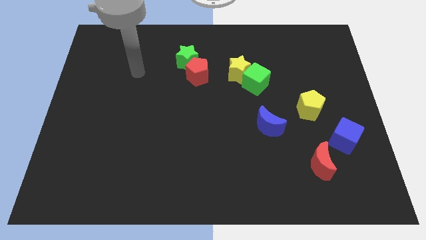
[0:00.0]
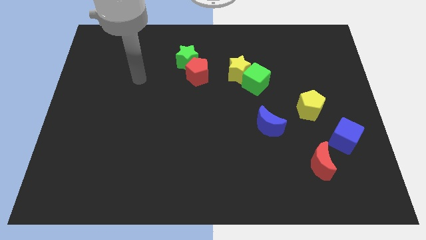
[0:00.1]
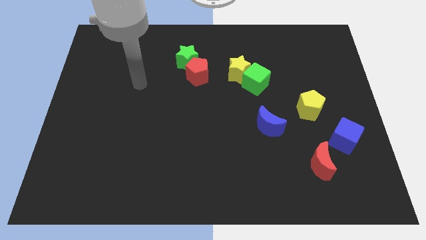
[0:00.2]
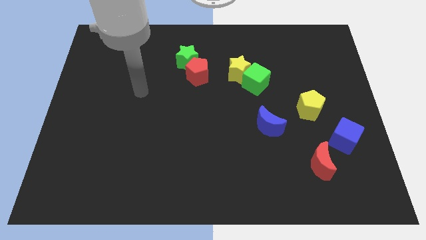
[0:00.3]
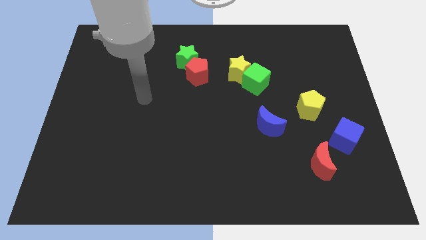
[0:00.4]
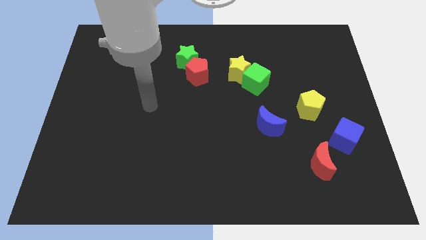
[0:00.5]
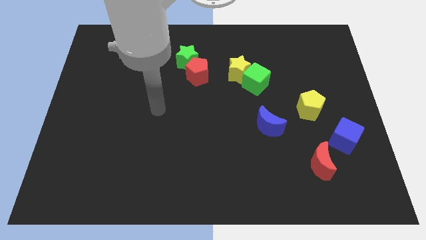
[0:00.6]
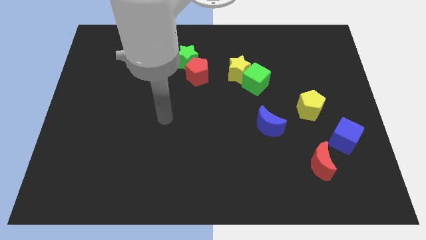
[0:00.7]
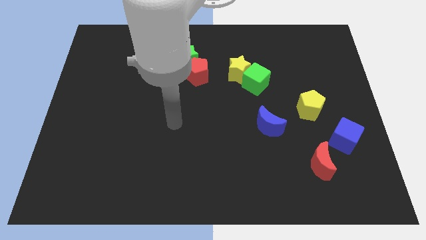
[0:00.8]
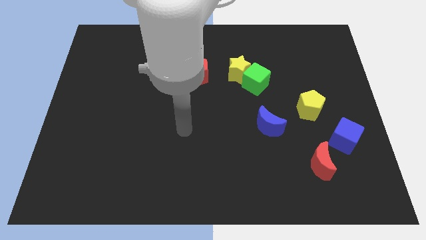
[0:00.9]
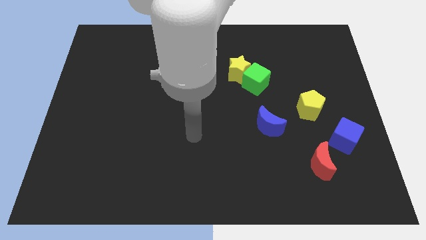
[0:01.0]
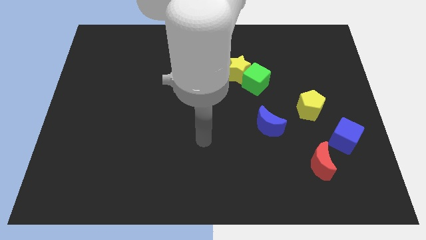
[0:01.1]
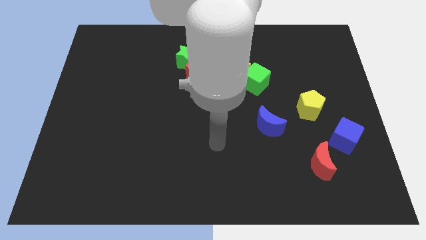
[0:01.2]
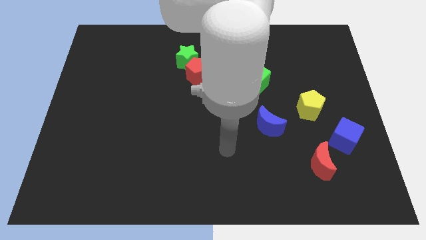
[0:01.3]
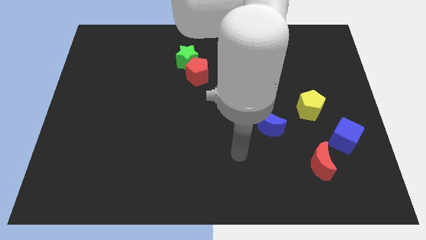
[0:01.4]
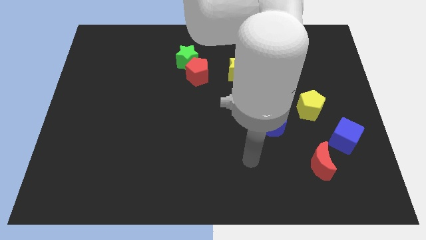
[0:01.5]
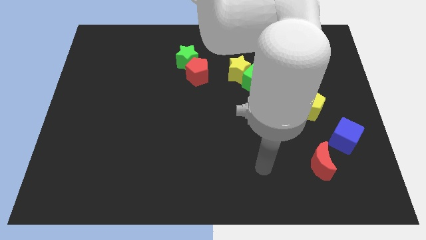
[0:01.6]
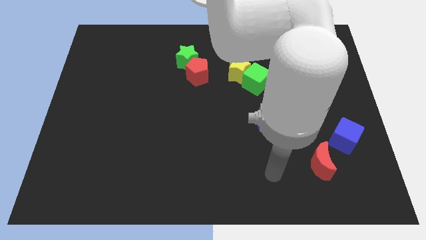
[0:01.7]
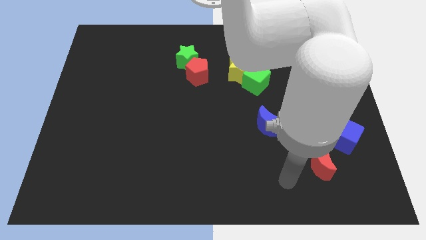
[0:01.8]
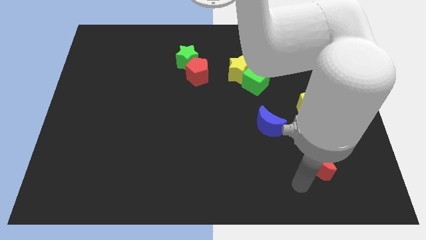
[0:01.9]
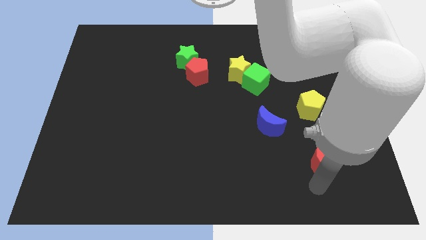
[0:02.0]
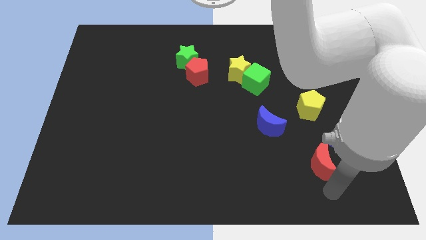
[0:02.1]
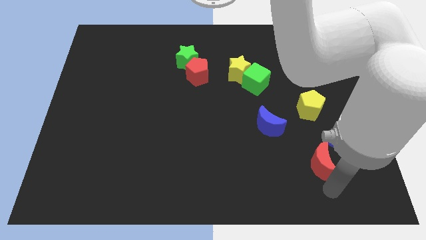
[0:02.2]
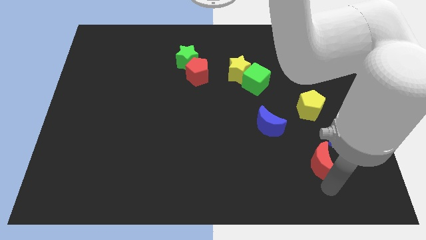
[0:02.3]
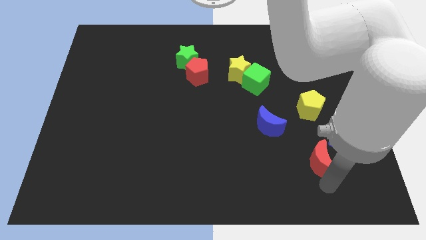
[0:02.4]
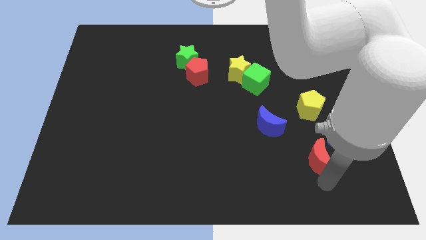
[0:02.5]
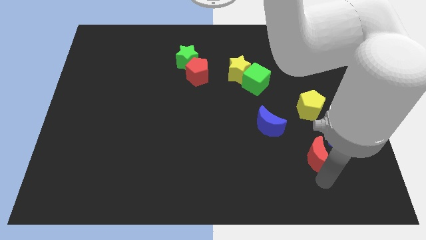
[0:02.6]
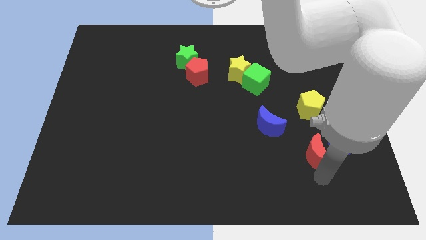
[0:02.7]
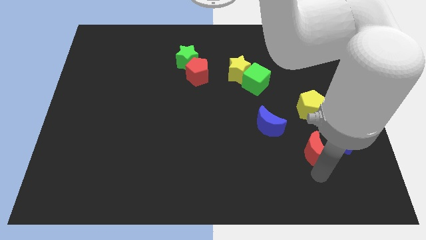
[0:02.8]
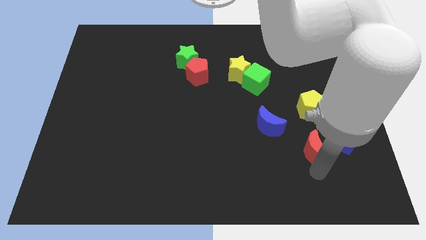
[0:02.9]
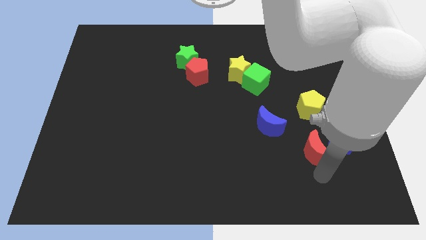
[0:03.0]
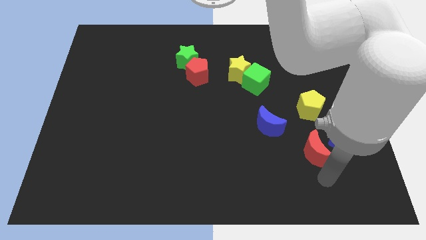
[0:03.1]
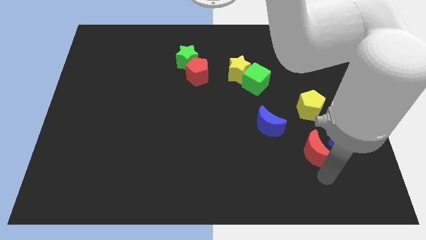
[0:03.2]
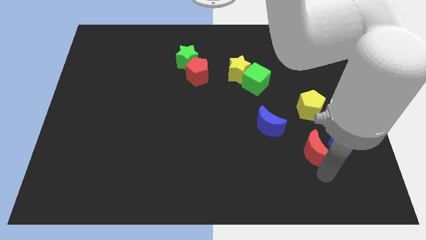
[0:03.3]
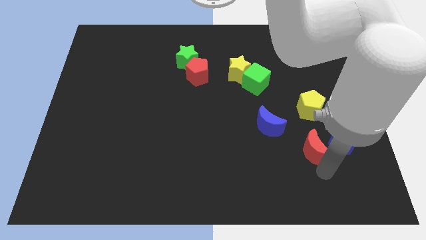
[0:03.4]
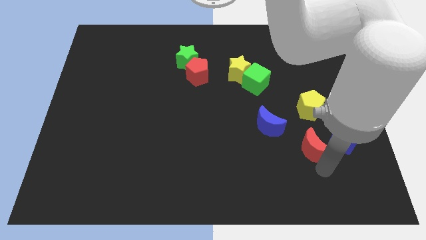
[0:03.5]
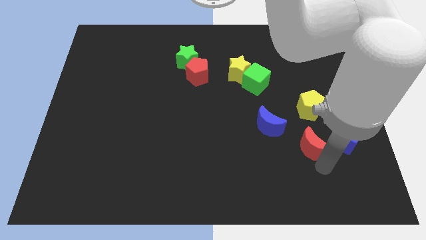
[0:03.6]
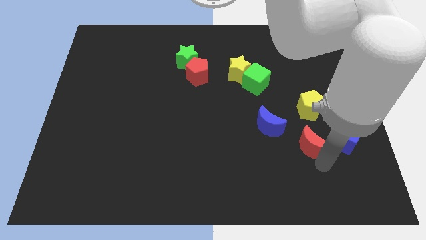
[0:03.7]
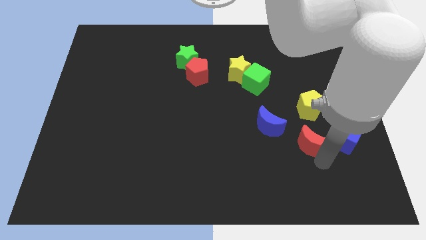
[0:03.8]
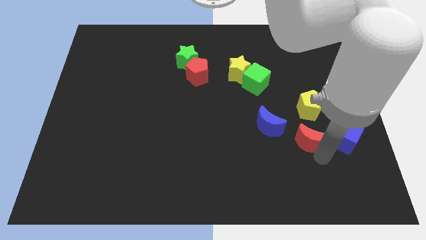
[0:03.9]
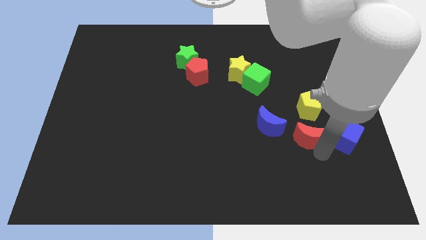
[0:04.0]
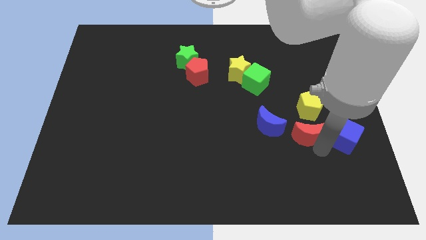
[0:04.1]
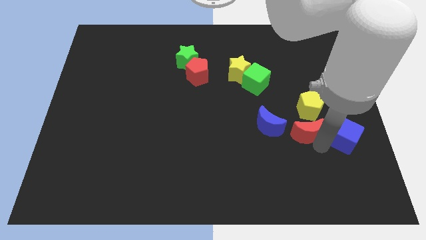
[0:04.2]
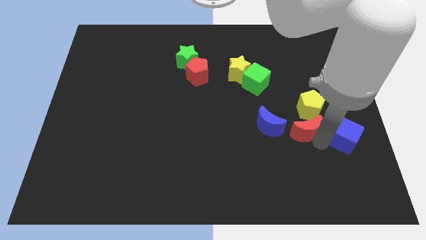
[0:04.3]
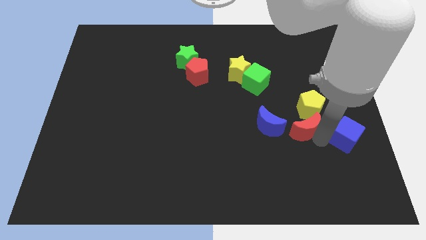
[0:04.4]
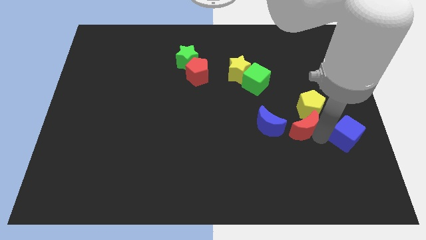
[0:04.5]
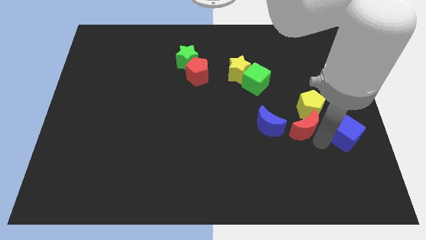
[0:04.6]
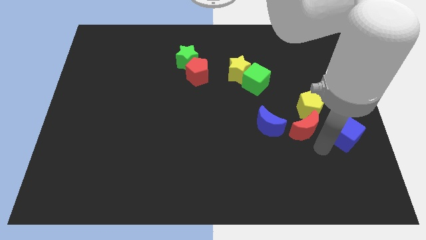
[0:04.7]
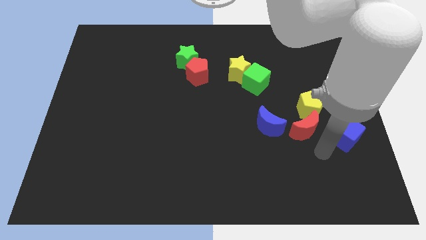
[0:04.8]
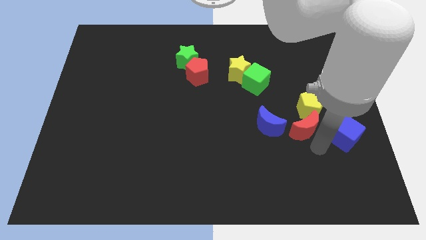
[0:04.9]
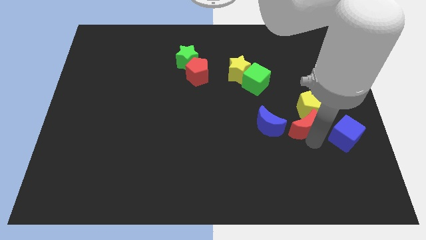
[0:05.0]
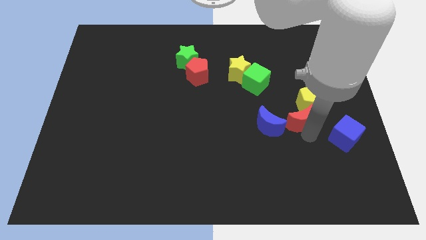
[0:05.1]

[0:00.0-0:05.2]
put the red moon to the top right side of the blue moon

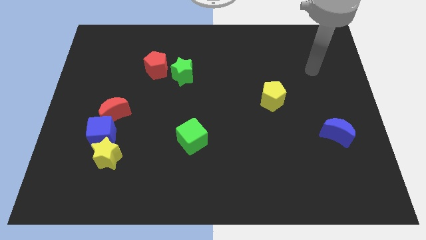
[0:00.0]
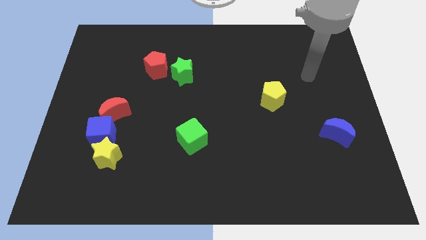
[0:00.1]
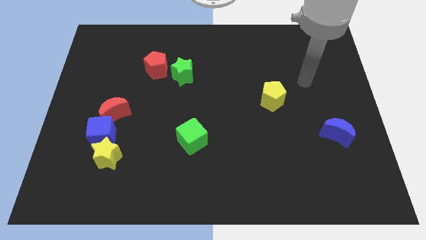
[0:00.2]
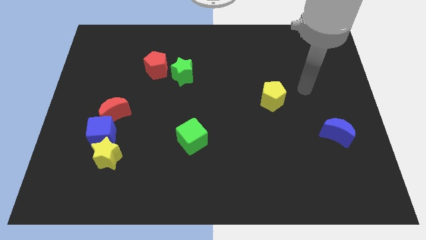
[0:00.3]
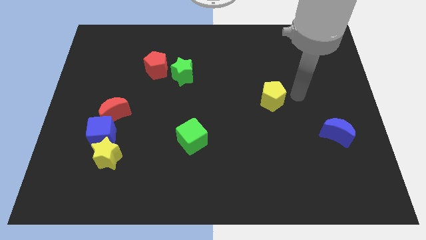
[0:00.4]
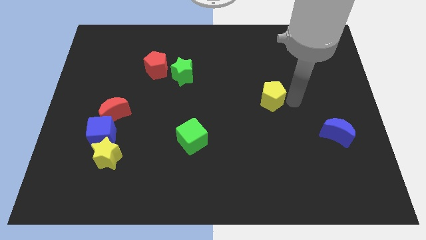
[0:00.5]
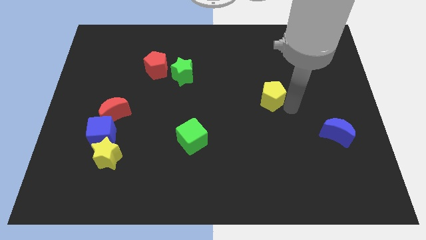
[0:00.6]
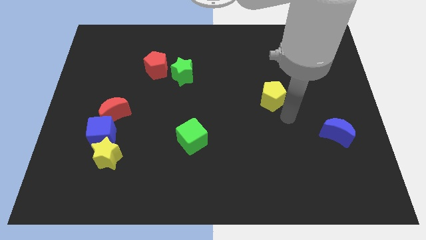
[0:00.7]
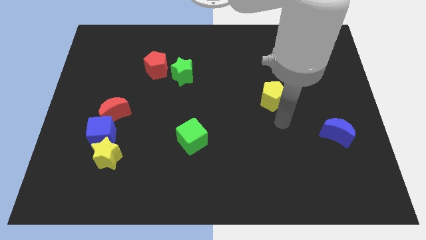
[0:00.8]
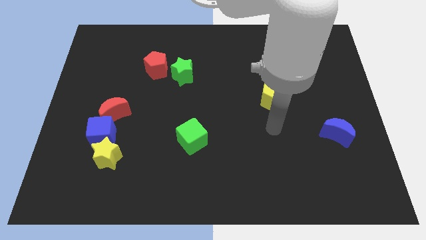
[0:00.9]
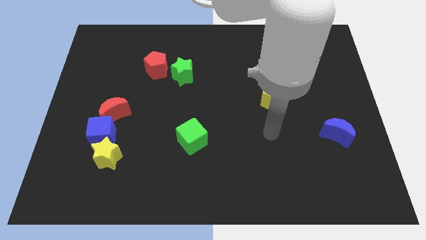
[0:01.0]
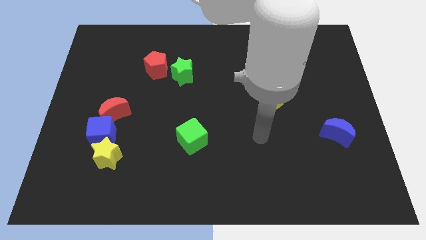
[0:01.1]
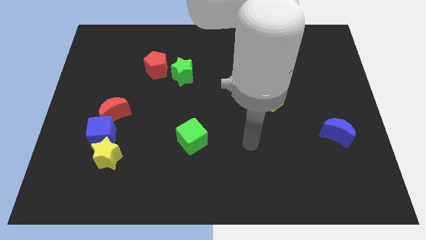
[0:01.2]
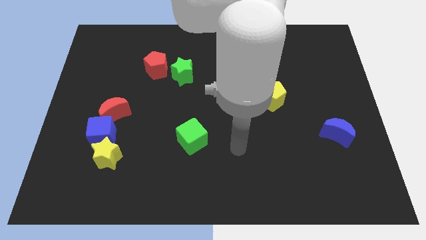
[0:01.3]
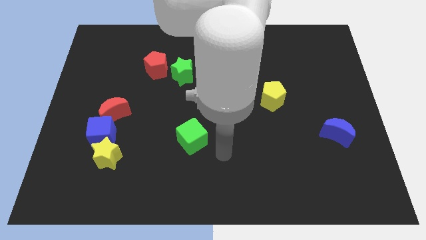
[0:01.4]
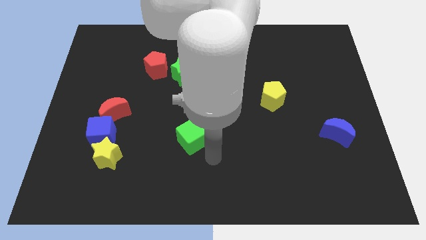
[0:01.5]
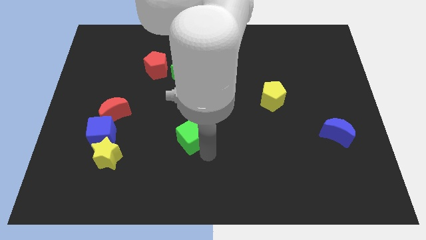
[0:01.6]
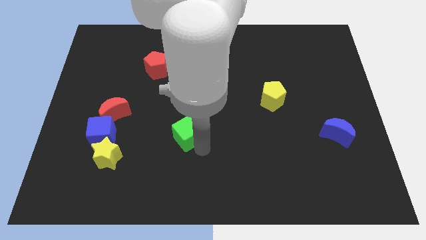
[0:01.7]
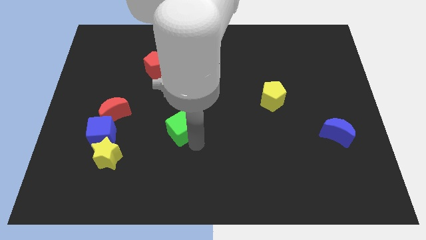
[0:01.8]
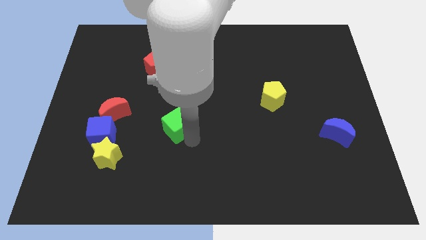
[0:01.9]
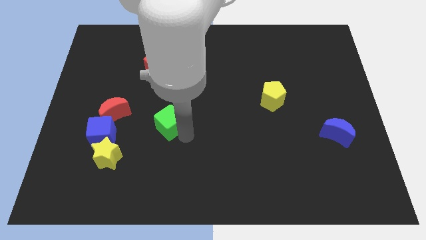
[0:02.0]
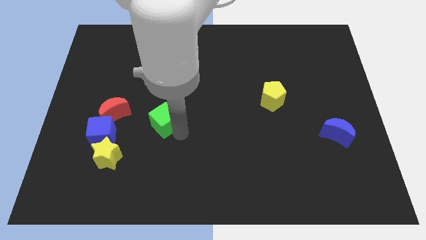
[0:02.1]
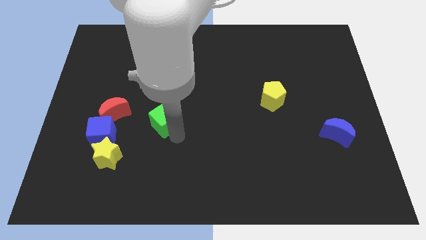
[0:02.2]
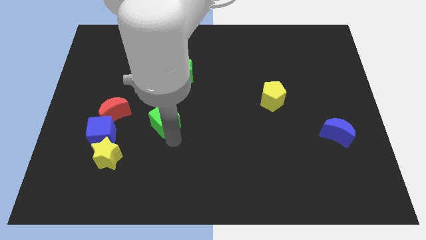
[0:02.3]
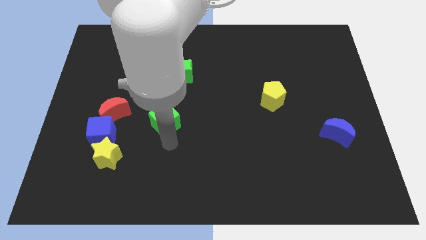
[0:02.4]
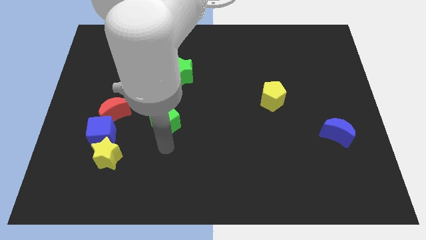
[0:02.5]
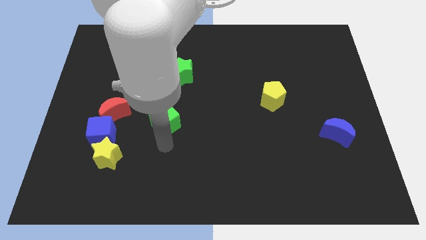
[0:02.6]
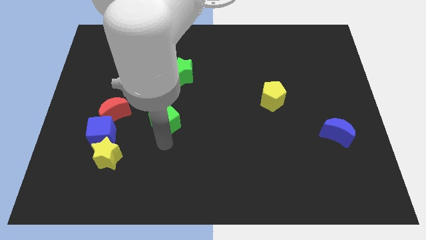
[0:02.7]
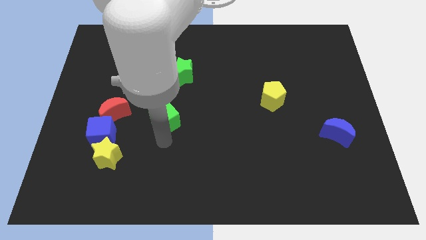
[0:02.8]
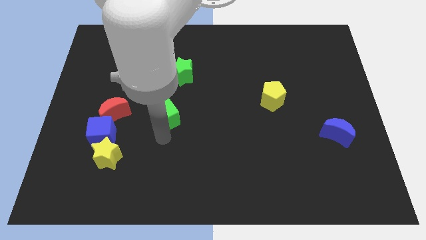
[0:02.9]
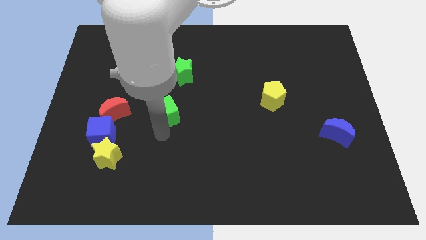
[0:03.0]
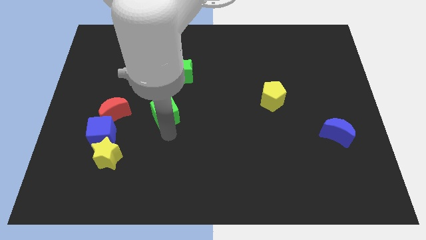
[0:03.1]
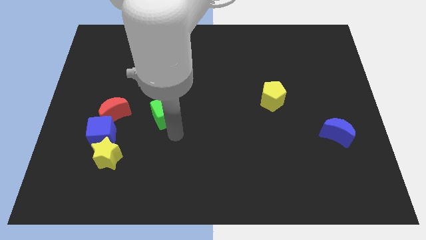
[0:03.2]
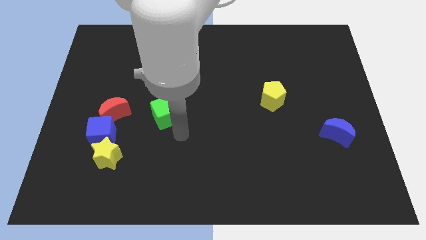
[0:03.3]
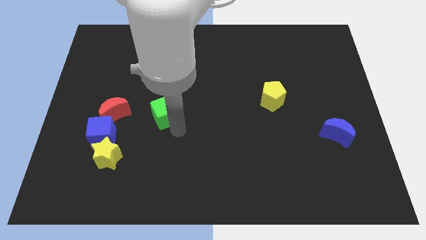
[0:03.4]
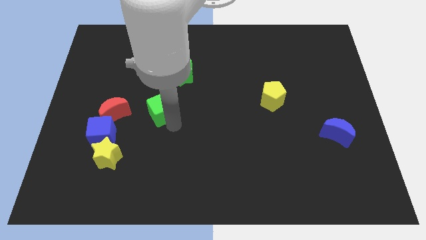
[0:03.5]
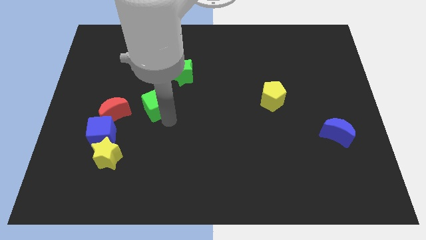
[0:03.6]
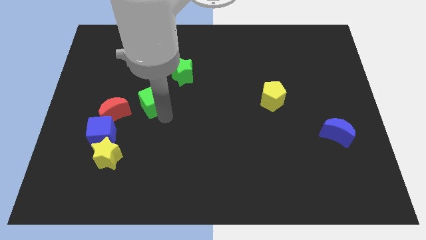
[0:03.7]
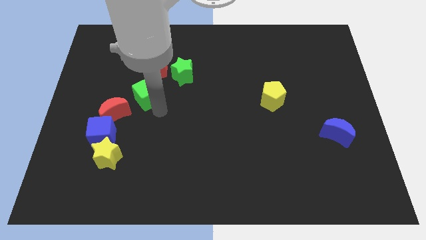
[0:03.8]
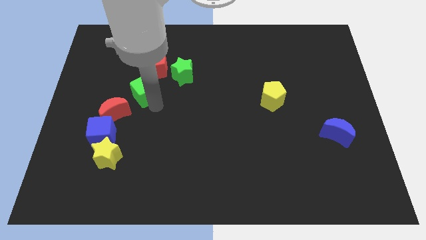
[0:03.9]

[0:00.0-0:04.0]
move the green cube to the bottom left side of the red pentagon
